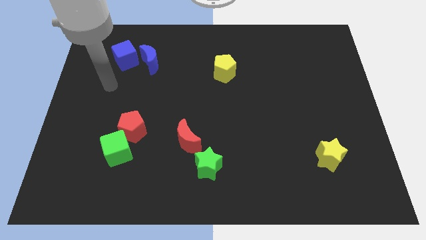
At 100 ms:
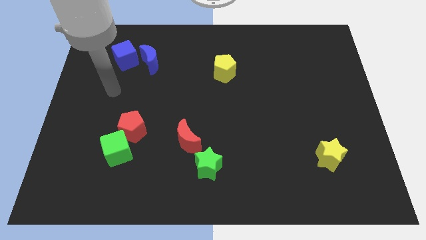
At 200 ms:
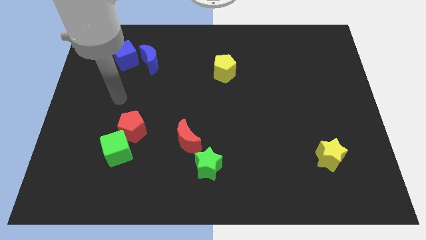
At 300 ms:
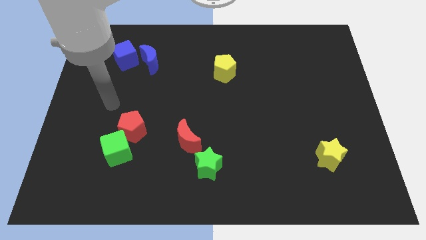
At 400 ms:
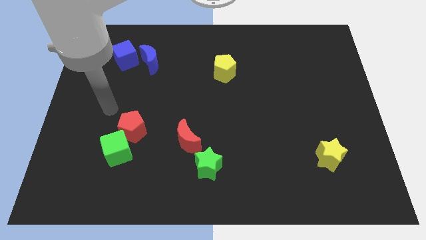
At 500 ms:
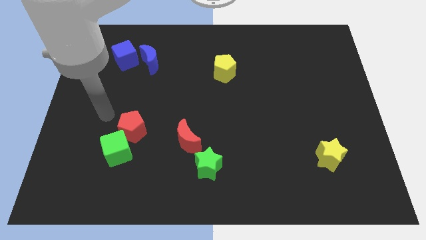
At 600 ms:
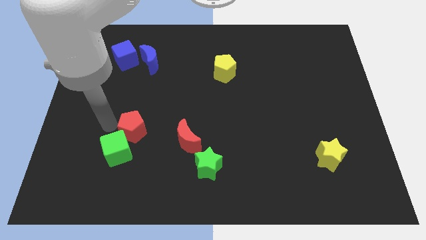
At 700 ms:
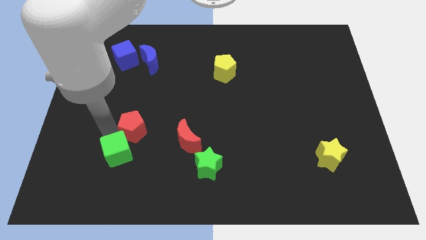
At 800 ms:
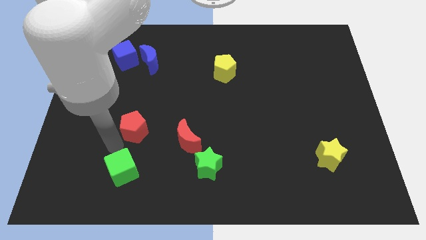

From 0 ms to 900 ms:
separate the red pentagon from the green cube

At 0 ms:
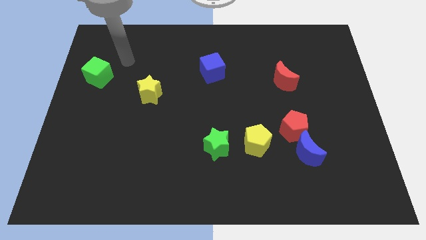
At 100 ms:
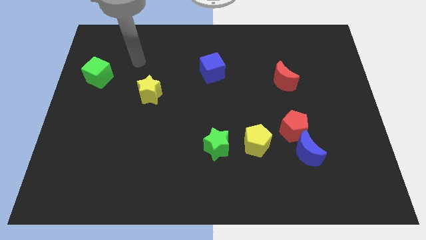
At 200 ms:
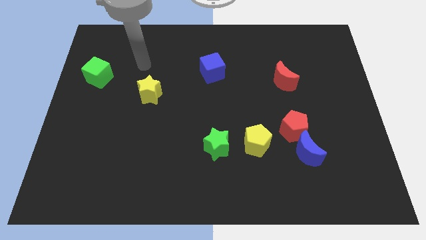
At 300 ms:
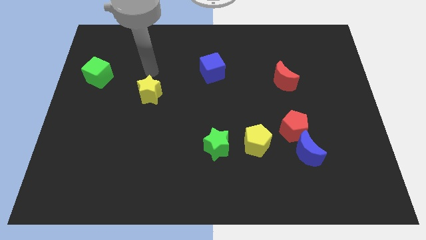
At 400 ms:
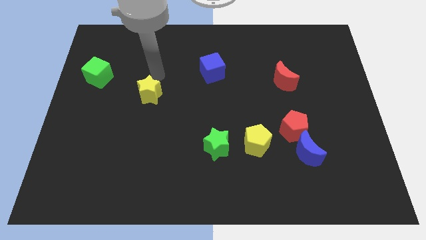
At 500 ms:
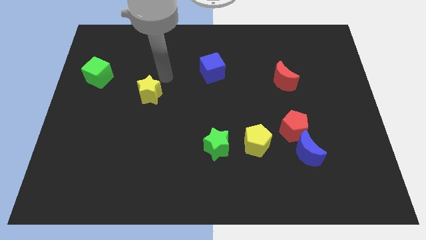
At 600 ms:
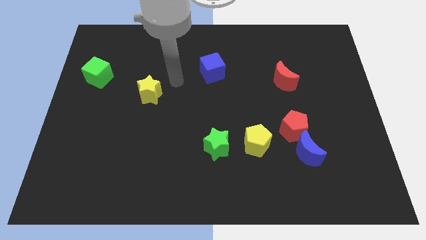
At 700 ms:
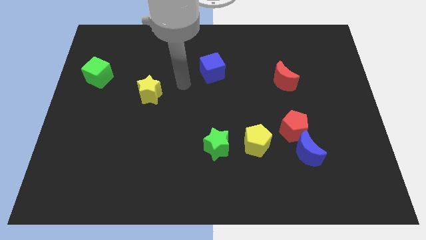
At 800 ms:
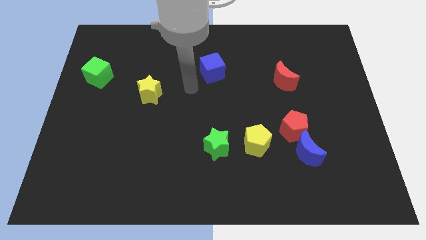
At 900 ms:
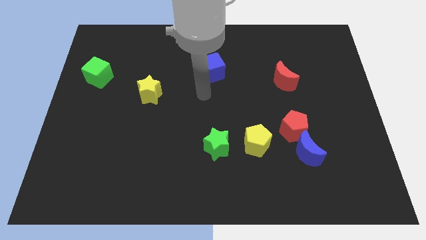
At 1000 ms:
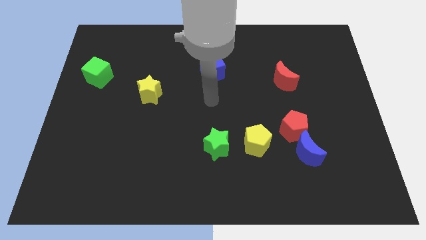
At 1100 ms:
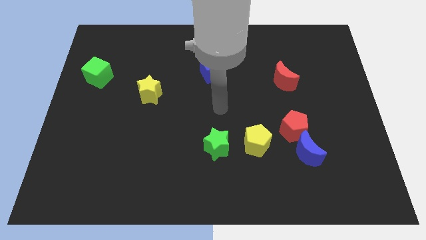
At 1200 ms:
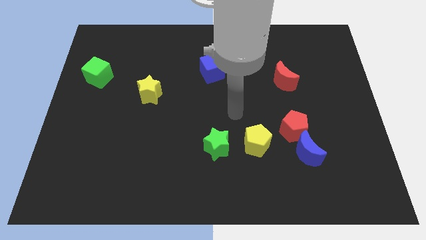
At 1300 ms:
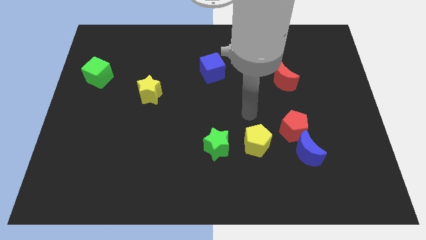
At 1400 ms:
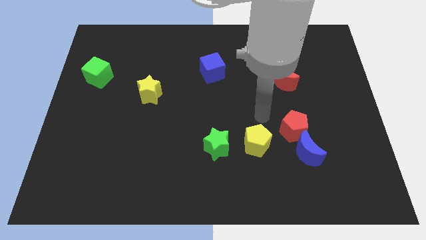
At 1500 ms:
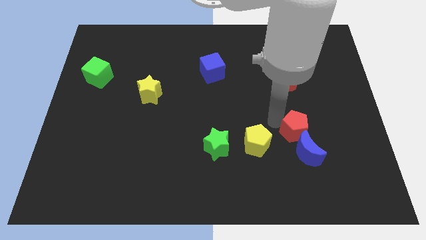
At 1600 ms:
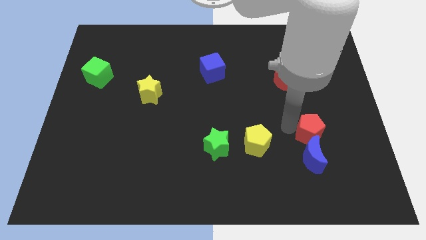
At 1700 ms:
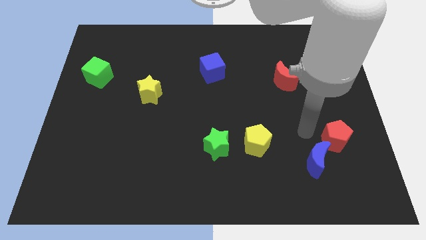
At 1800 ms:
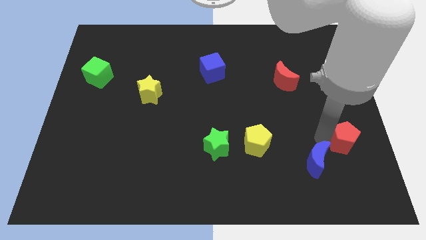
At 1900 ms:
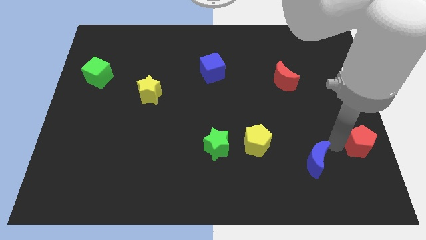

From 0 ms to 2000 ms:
move the blue moon away from the red pentagon

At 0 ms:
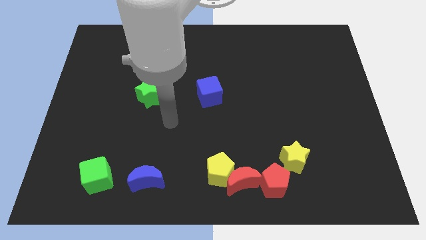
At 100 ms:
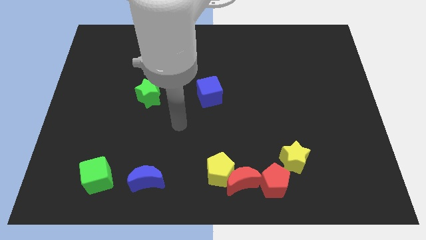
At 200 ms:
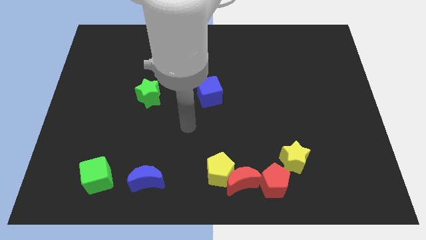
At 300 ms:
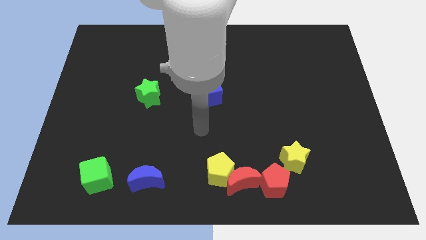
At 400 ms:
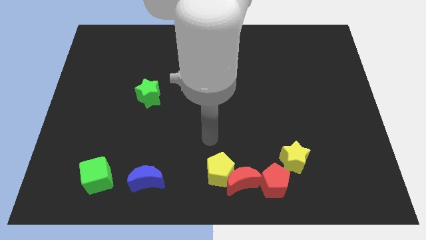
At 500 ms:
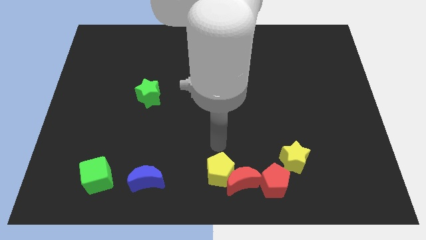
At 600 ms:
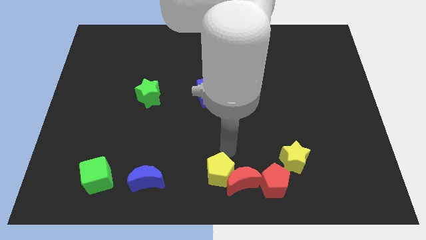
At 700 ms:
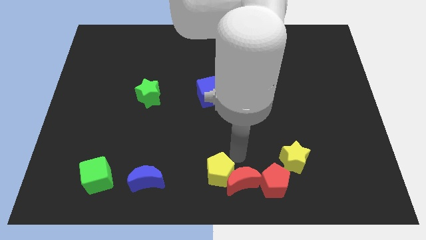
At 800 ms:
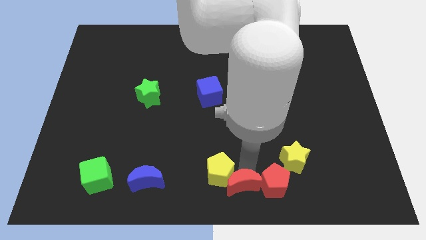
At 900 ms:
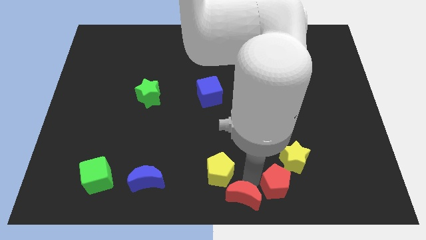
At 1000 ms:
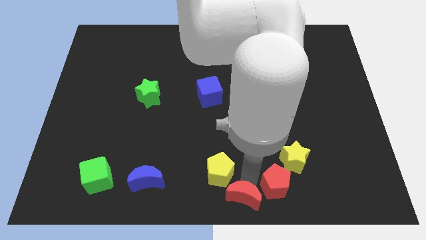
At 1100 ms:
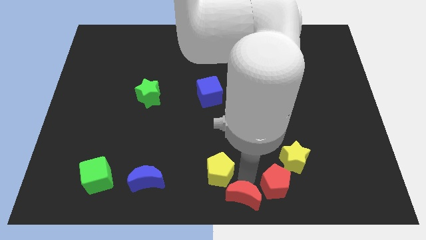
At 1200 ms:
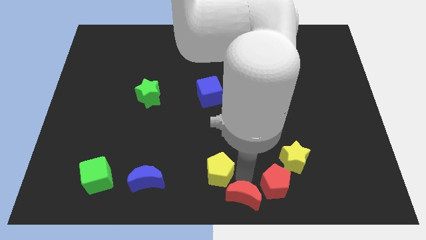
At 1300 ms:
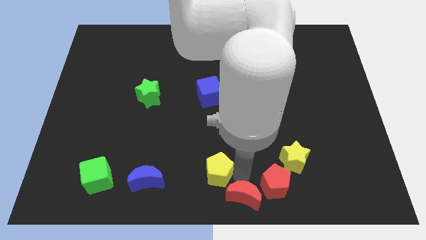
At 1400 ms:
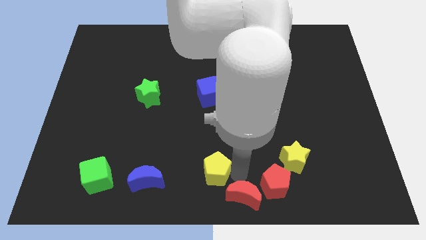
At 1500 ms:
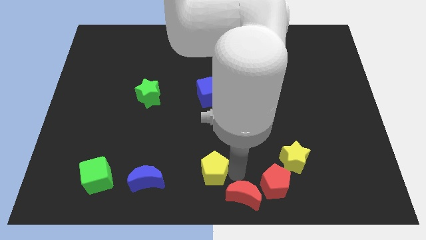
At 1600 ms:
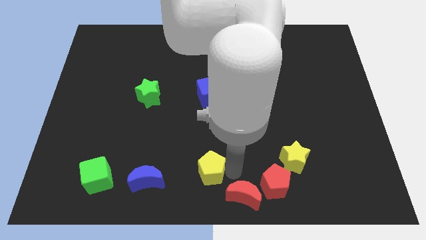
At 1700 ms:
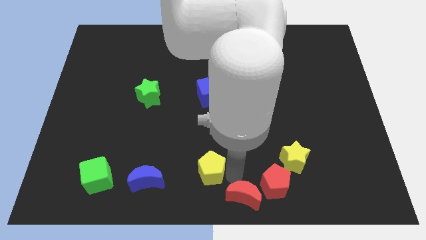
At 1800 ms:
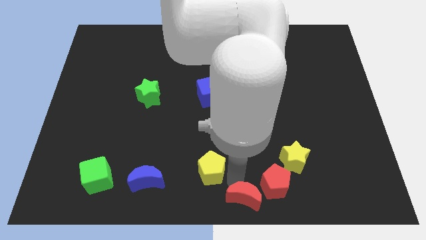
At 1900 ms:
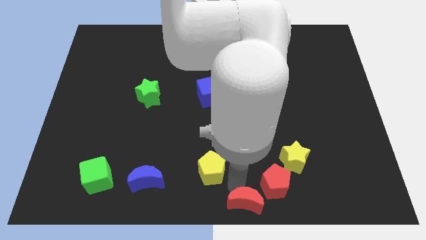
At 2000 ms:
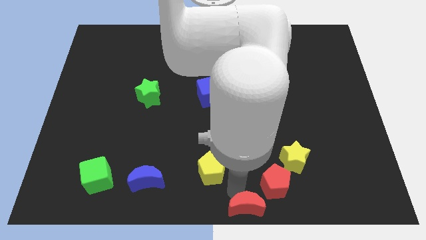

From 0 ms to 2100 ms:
pull the yellow pentagon apart from the red moon

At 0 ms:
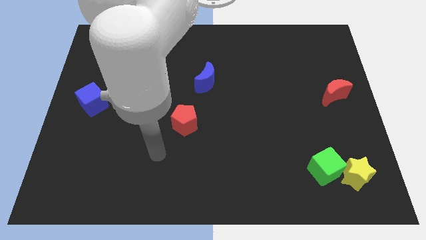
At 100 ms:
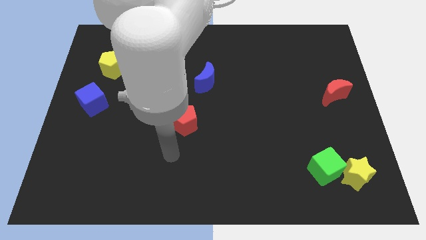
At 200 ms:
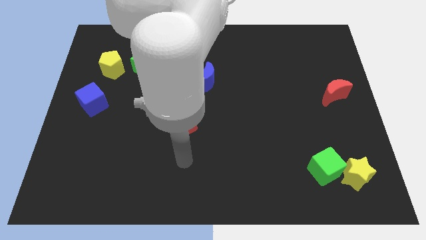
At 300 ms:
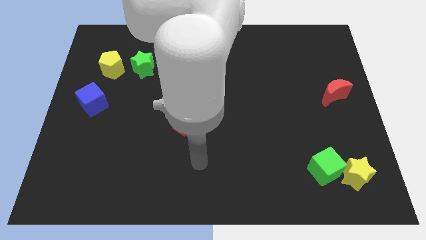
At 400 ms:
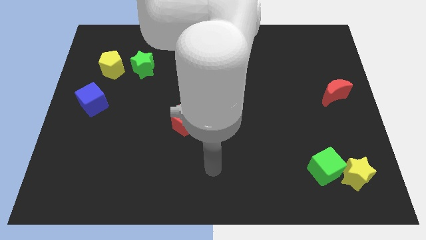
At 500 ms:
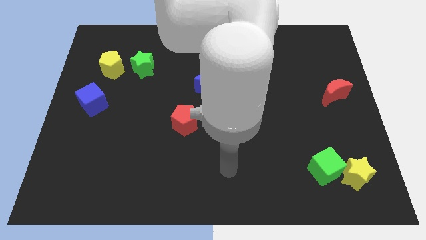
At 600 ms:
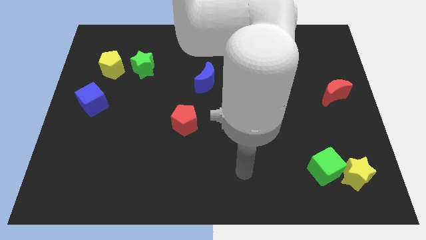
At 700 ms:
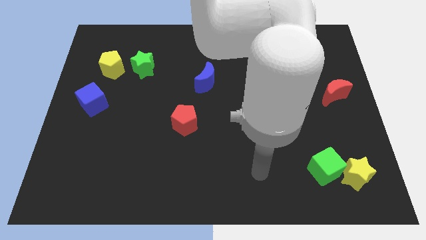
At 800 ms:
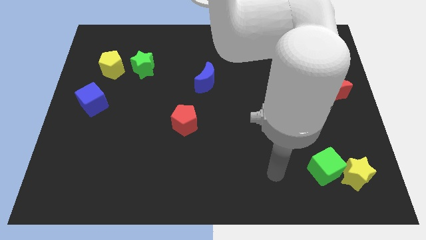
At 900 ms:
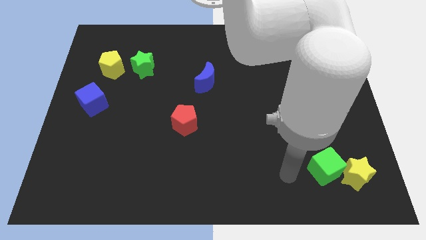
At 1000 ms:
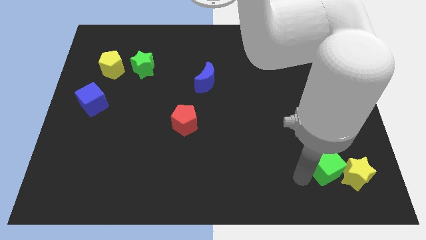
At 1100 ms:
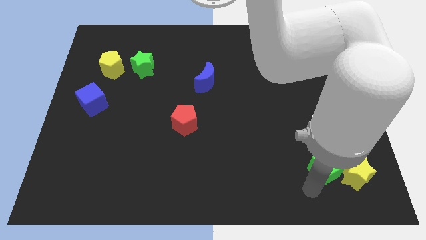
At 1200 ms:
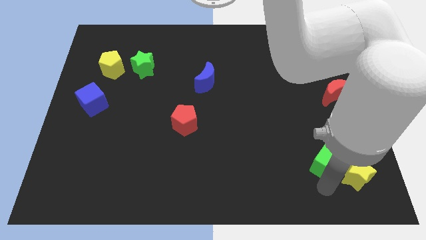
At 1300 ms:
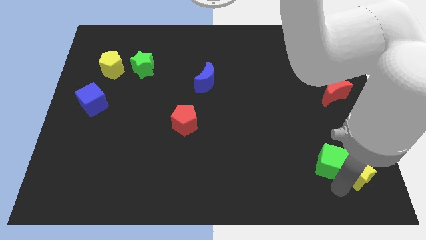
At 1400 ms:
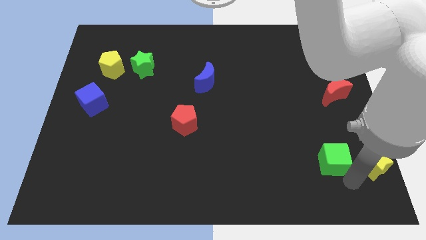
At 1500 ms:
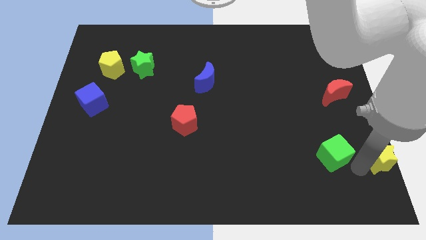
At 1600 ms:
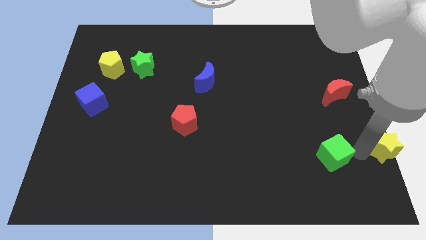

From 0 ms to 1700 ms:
pull the green cube apart from the yellow star

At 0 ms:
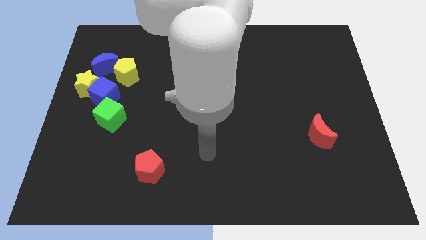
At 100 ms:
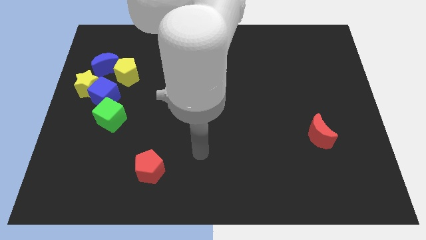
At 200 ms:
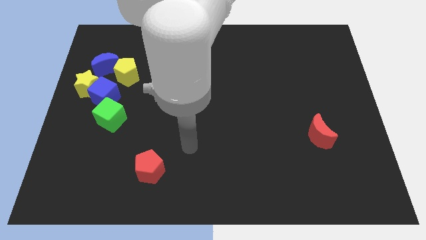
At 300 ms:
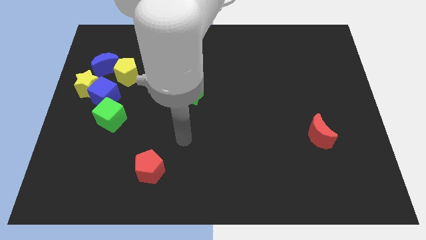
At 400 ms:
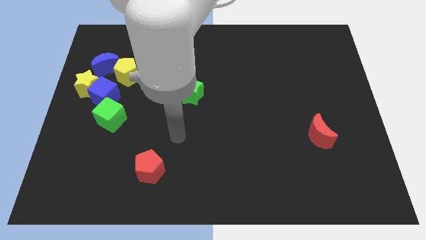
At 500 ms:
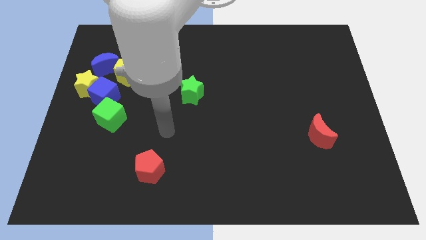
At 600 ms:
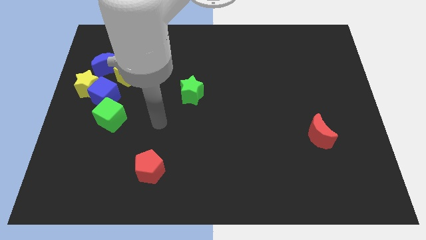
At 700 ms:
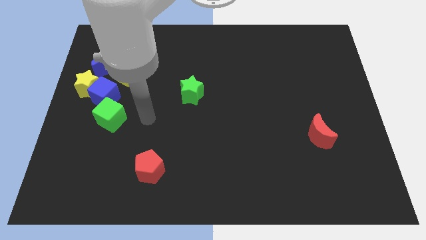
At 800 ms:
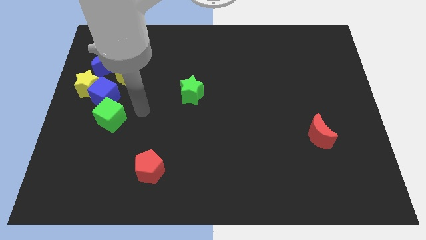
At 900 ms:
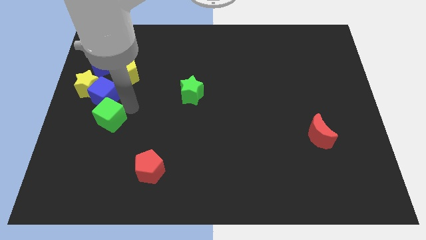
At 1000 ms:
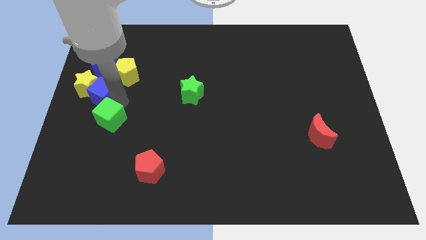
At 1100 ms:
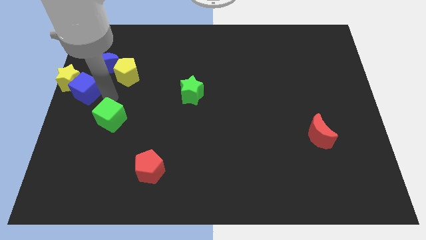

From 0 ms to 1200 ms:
move the green cube away from the blue cube

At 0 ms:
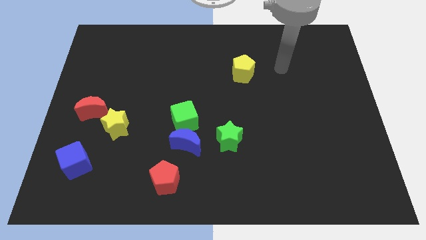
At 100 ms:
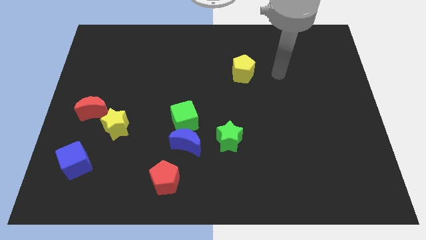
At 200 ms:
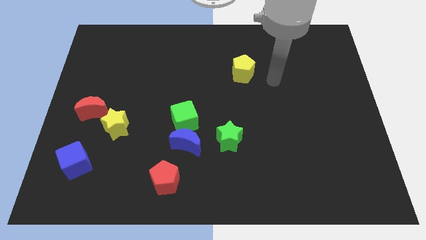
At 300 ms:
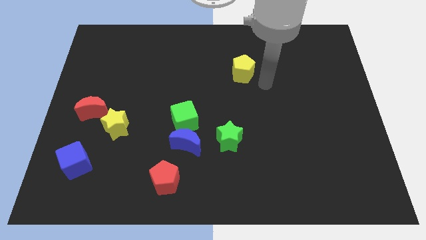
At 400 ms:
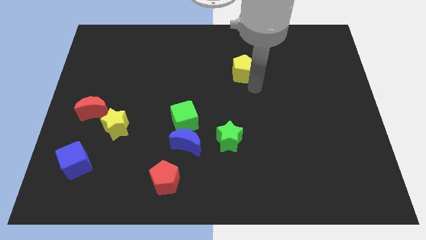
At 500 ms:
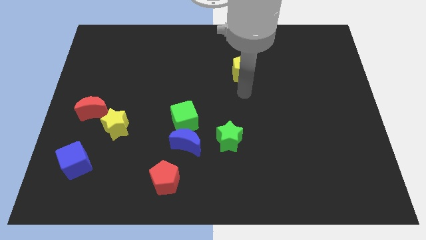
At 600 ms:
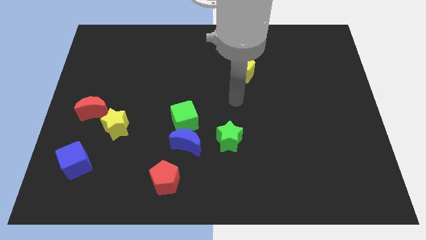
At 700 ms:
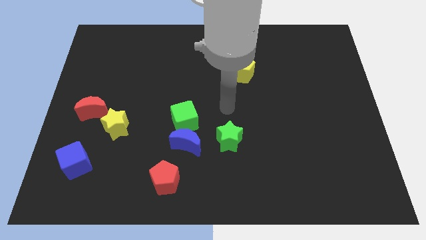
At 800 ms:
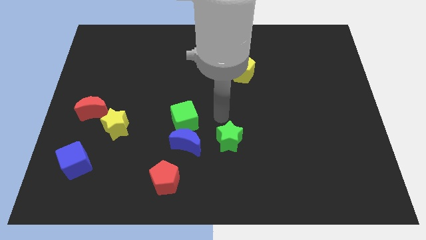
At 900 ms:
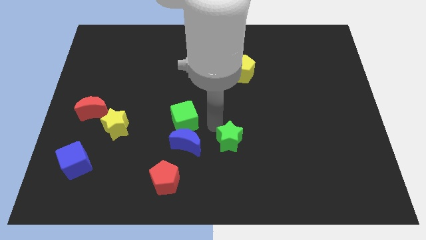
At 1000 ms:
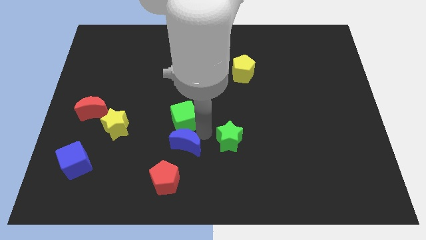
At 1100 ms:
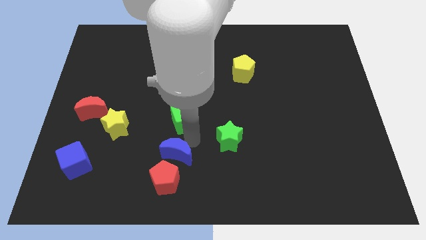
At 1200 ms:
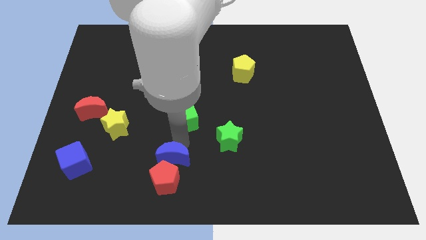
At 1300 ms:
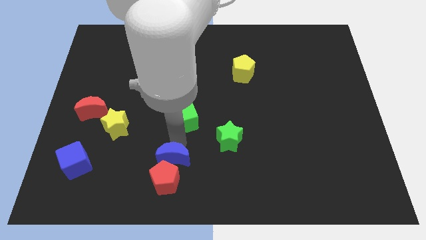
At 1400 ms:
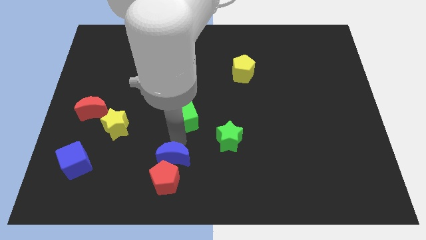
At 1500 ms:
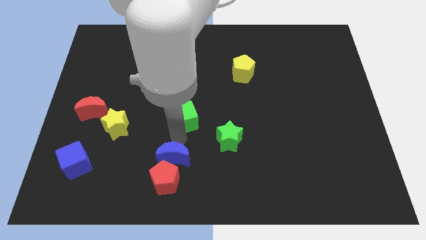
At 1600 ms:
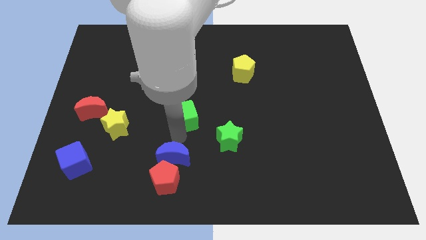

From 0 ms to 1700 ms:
separate the green cube from the blue moon
